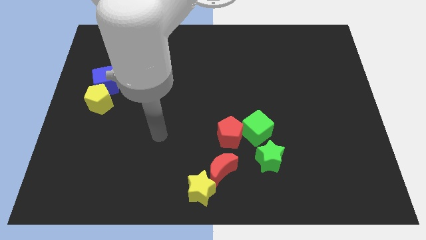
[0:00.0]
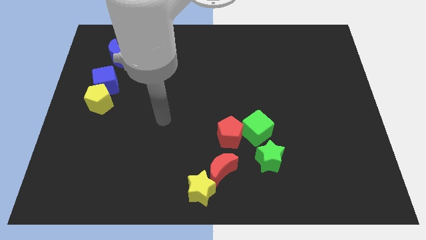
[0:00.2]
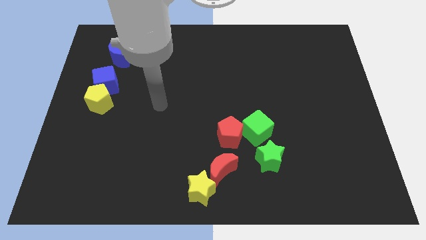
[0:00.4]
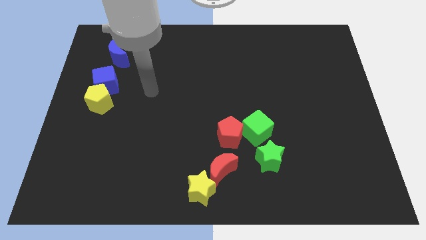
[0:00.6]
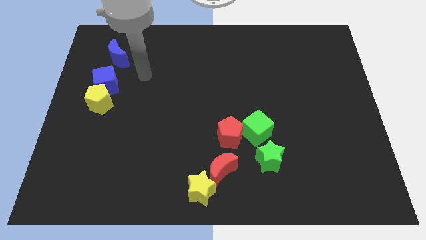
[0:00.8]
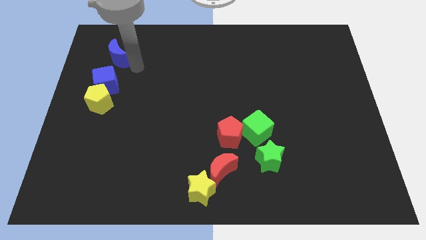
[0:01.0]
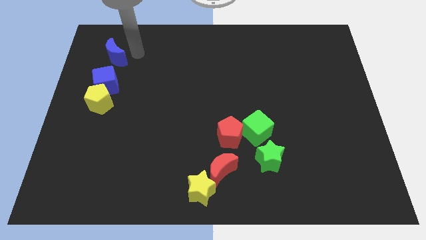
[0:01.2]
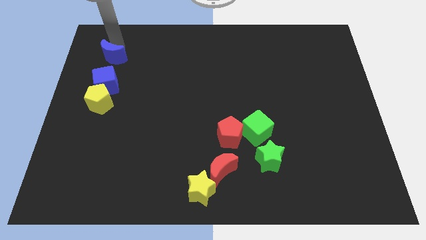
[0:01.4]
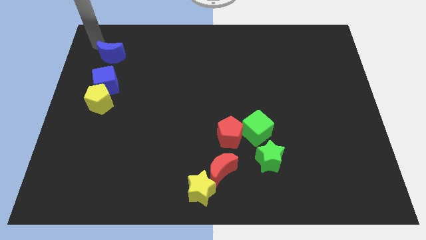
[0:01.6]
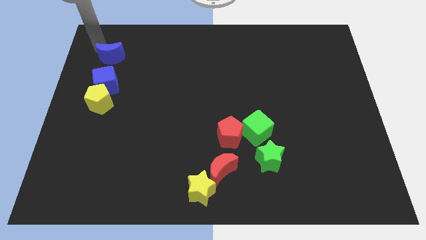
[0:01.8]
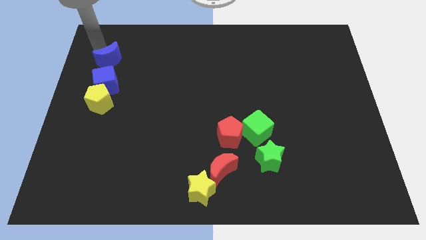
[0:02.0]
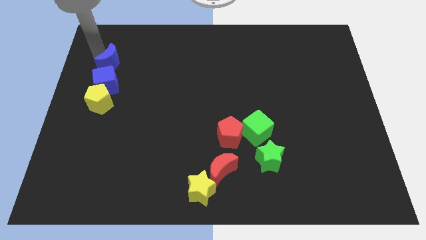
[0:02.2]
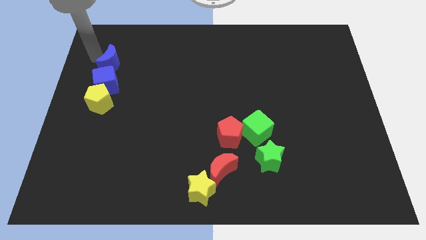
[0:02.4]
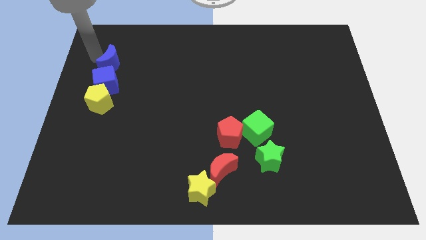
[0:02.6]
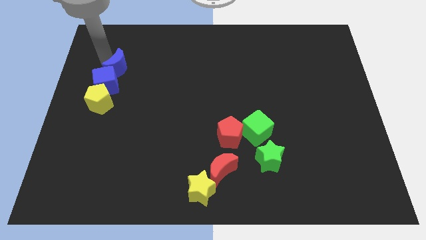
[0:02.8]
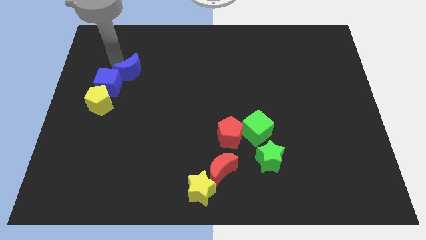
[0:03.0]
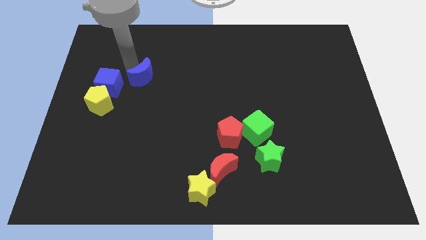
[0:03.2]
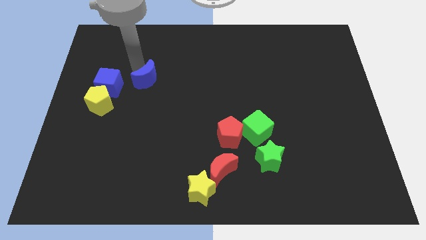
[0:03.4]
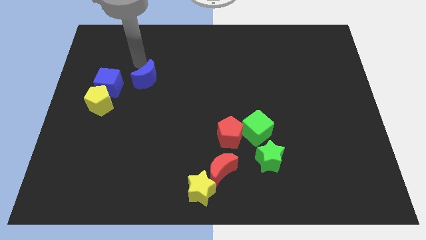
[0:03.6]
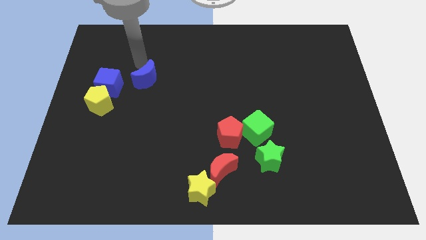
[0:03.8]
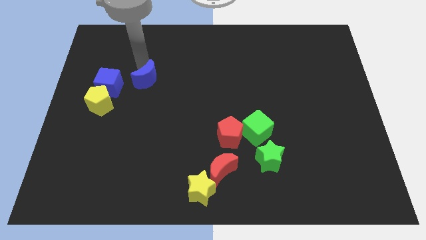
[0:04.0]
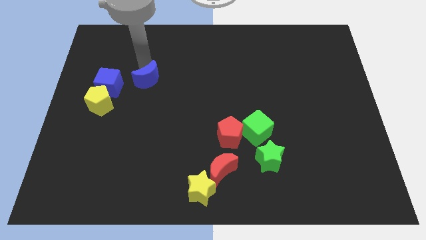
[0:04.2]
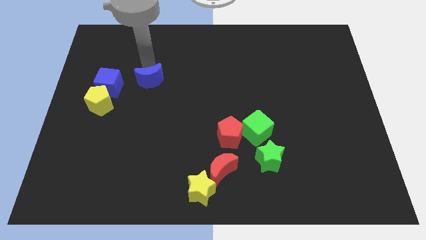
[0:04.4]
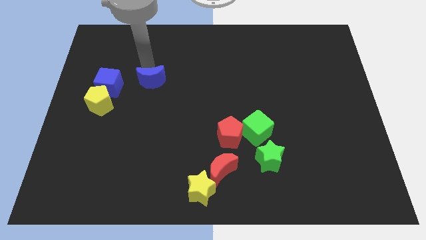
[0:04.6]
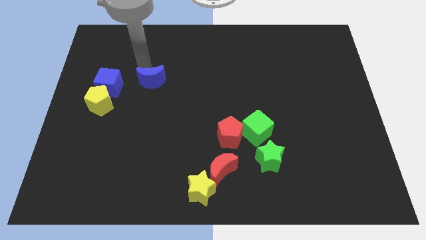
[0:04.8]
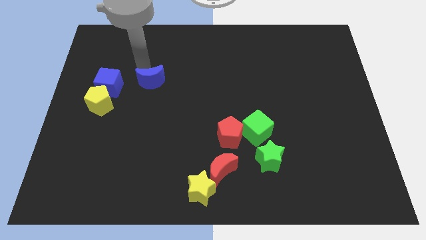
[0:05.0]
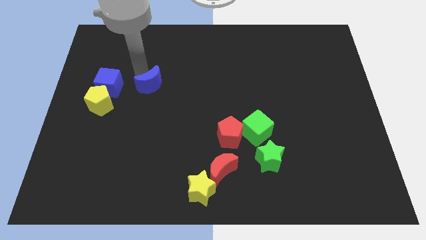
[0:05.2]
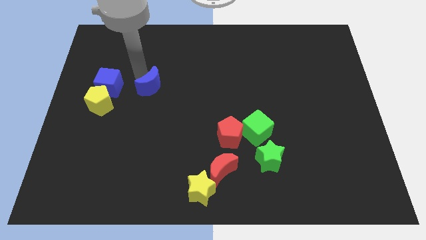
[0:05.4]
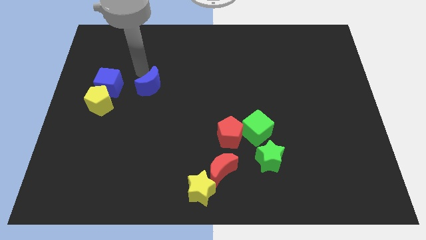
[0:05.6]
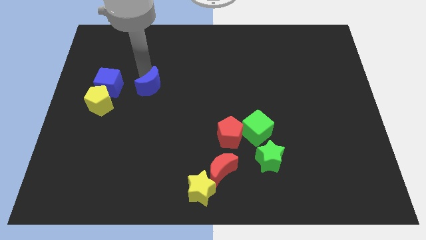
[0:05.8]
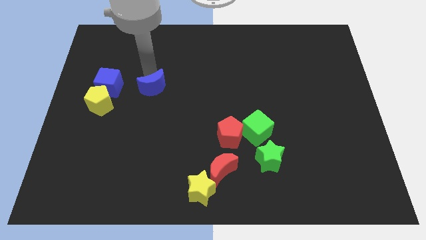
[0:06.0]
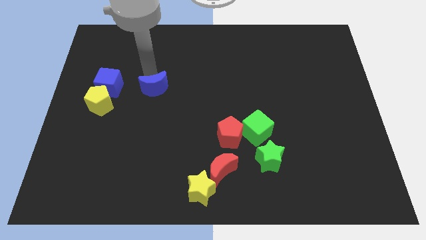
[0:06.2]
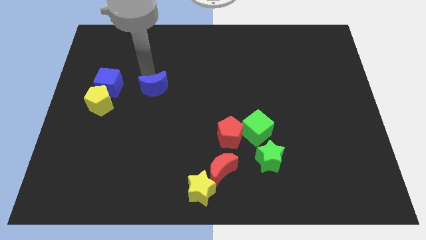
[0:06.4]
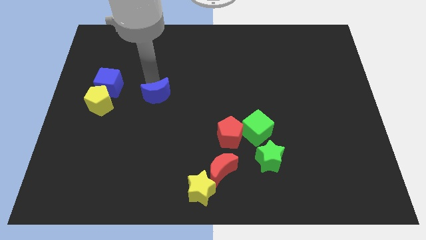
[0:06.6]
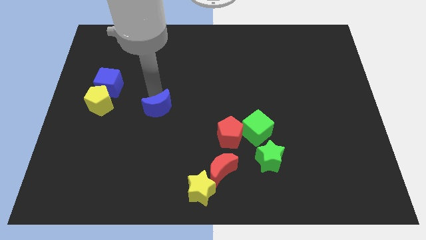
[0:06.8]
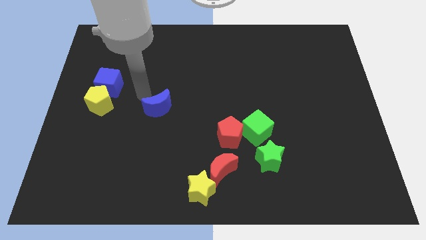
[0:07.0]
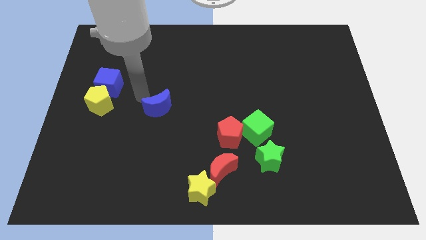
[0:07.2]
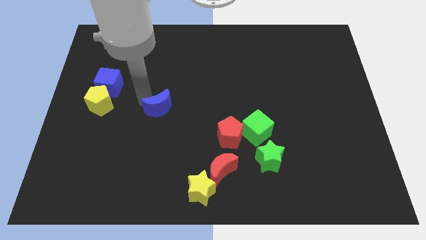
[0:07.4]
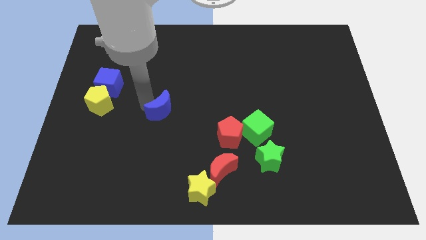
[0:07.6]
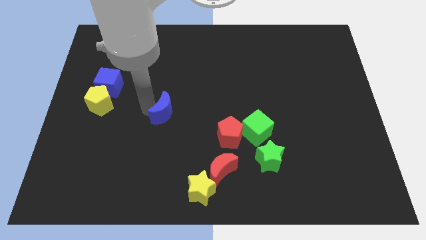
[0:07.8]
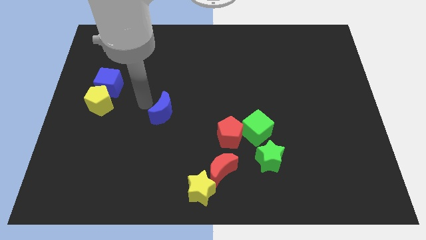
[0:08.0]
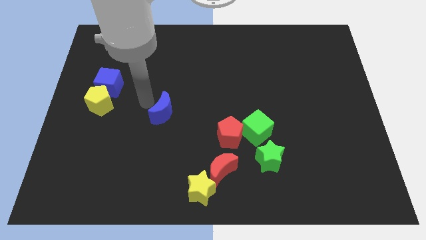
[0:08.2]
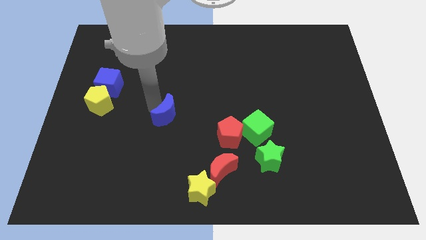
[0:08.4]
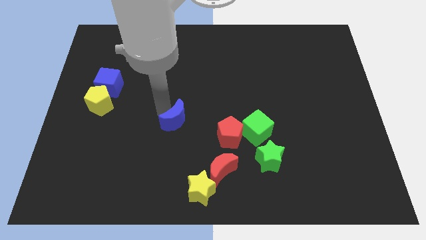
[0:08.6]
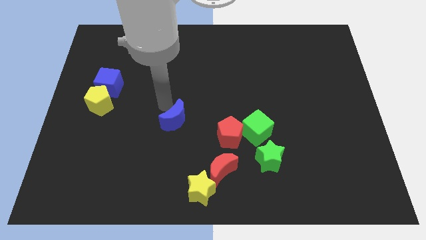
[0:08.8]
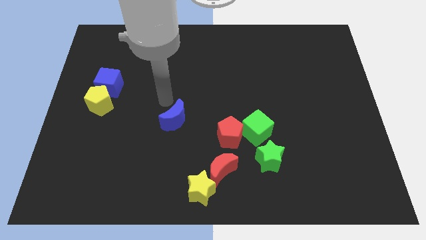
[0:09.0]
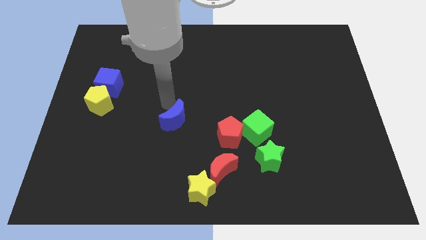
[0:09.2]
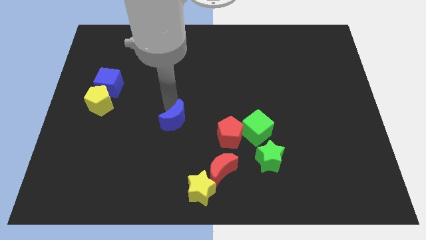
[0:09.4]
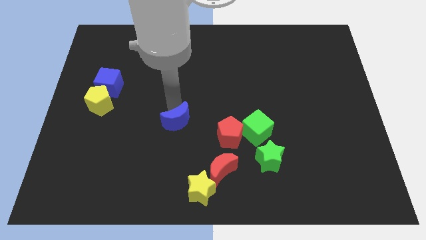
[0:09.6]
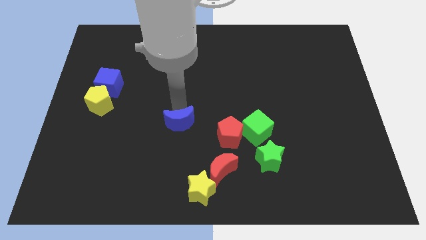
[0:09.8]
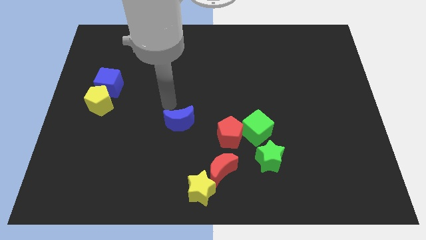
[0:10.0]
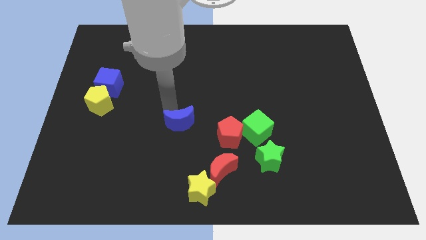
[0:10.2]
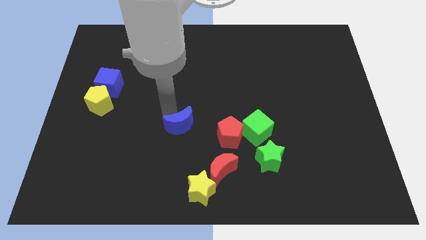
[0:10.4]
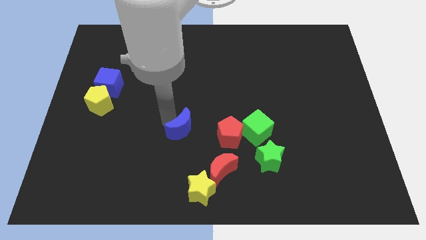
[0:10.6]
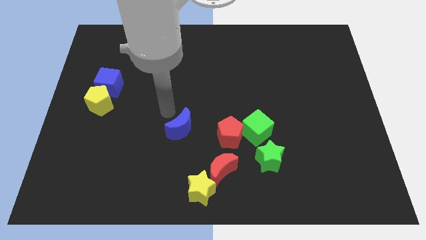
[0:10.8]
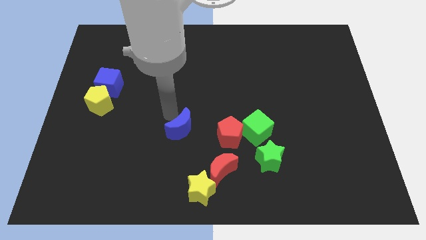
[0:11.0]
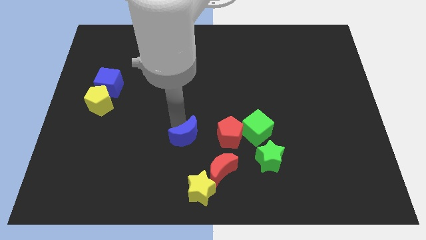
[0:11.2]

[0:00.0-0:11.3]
push the blue moon to the top left side of the red moon

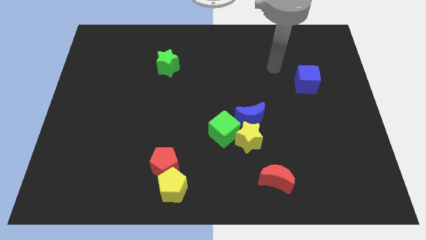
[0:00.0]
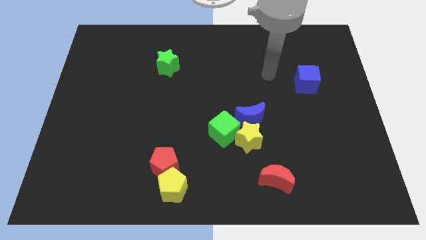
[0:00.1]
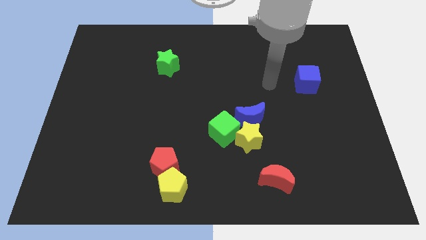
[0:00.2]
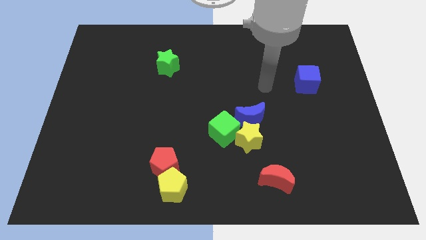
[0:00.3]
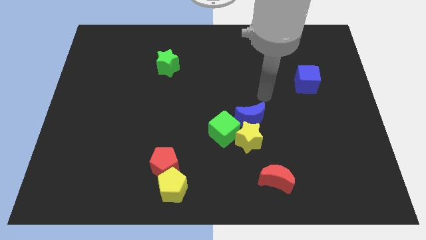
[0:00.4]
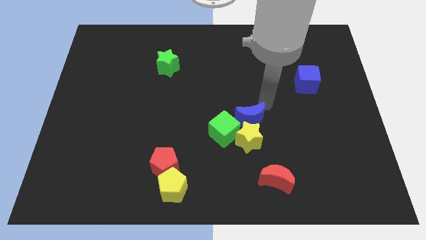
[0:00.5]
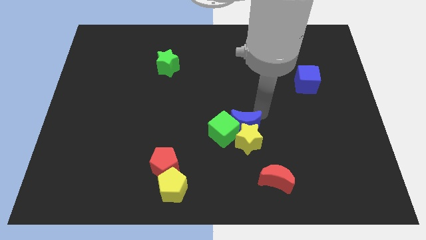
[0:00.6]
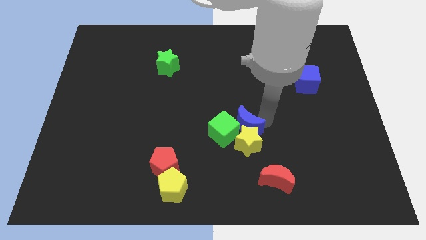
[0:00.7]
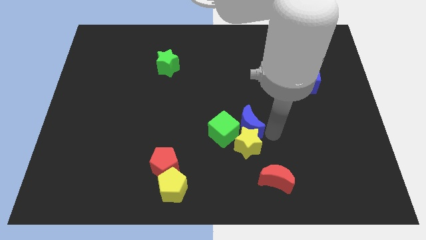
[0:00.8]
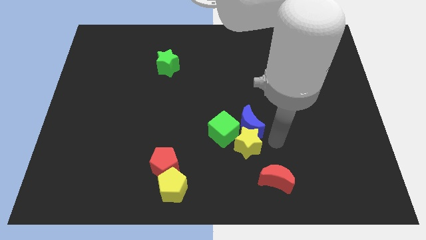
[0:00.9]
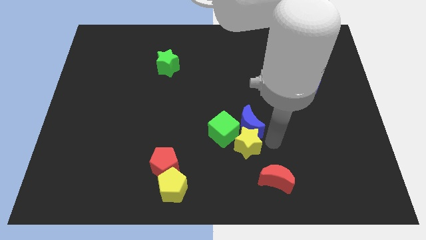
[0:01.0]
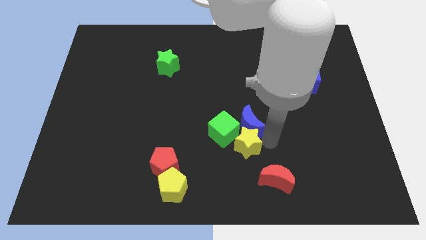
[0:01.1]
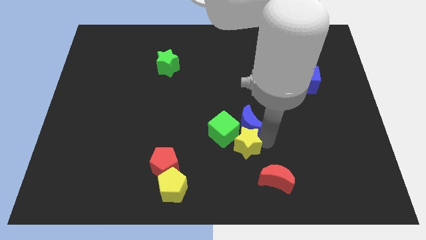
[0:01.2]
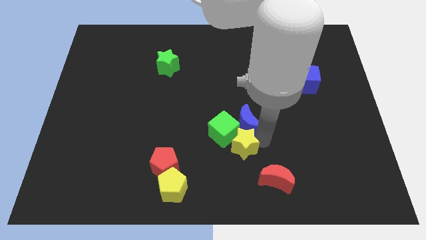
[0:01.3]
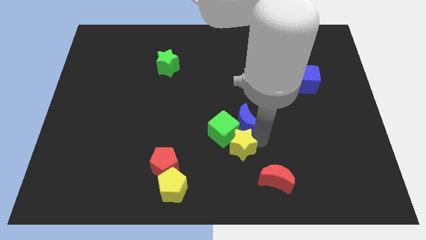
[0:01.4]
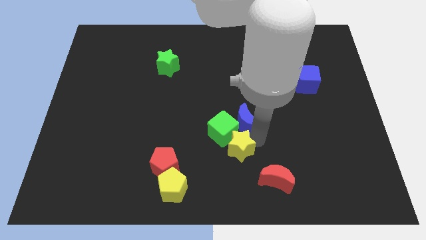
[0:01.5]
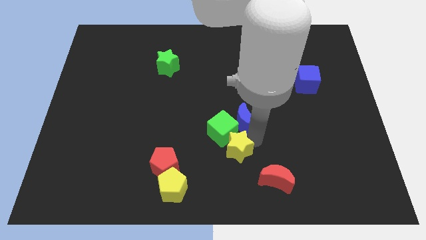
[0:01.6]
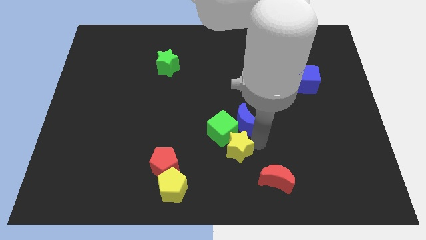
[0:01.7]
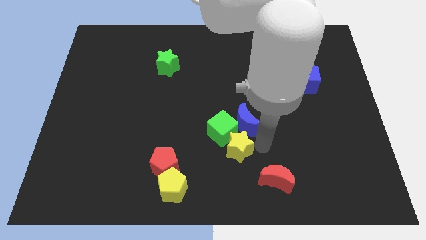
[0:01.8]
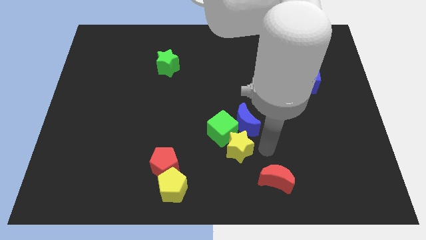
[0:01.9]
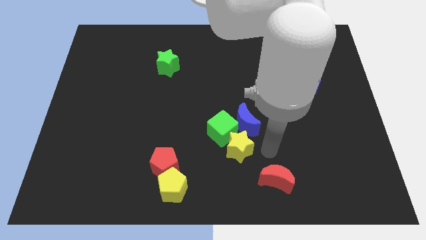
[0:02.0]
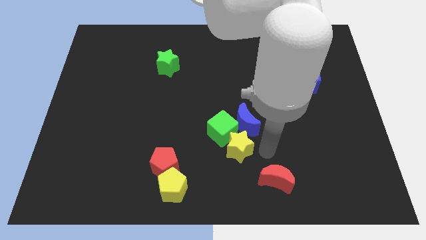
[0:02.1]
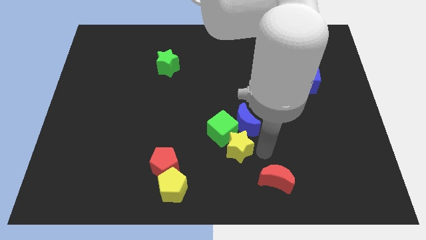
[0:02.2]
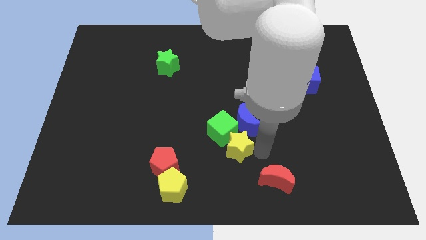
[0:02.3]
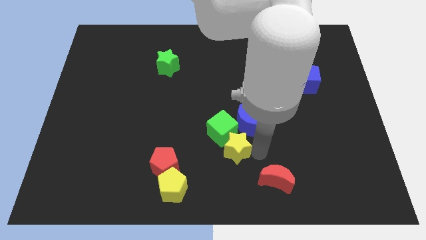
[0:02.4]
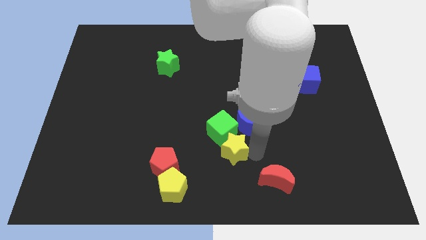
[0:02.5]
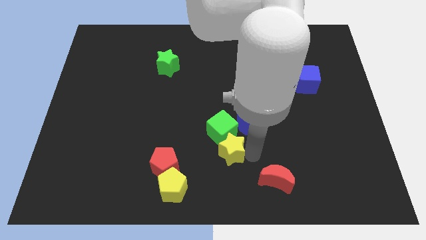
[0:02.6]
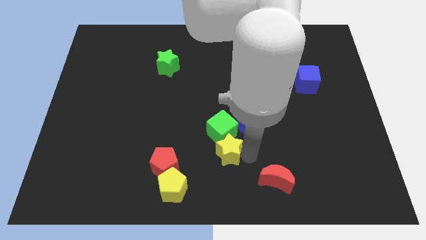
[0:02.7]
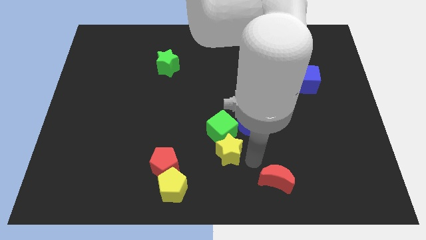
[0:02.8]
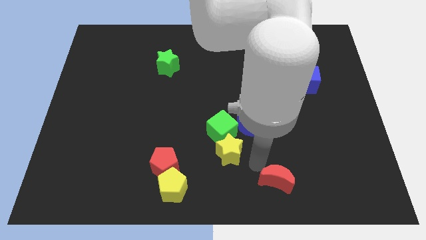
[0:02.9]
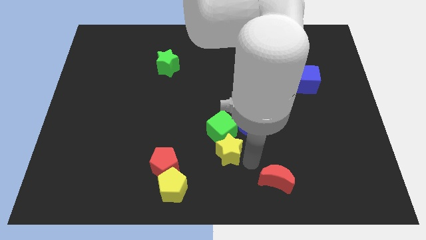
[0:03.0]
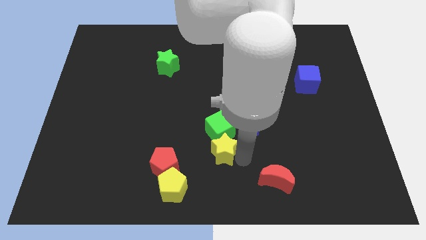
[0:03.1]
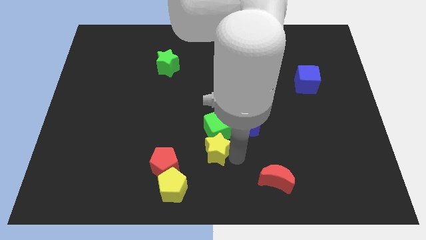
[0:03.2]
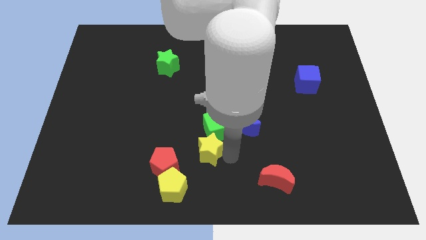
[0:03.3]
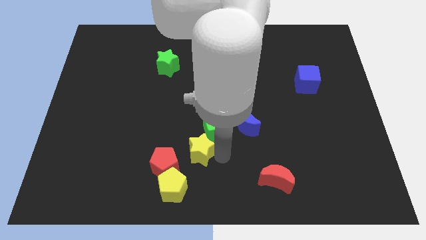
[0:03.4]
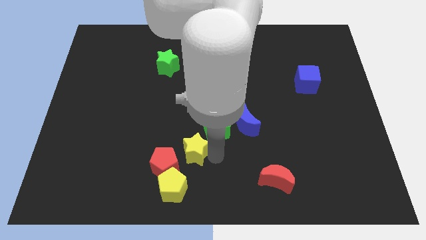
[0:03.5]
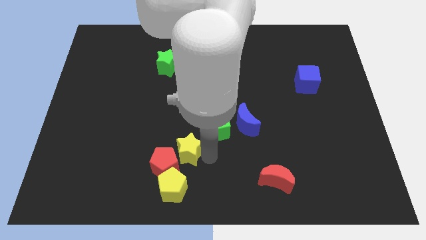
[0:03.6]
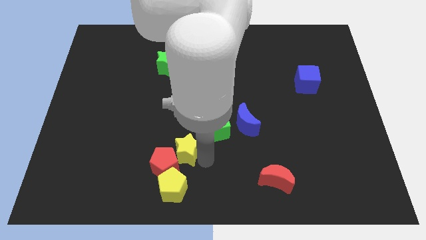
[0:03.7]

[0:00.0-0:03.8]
move the yellow star above the red pentagon
